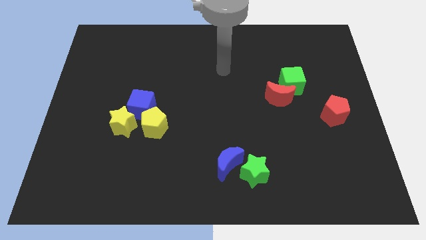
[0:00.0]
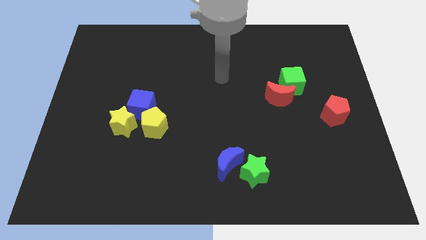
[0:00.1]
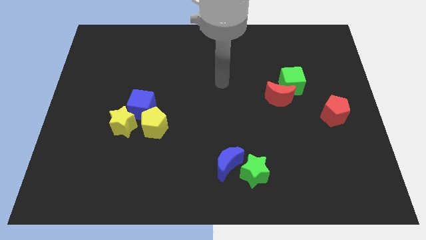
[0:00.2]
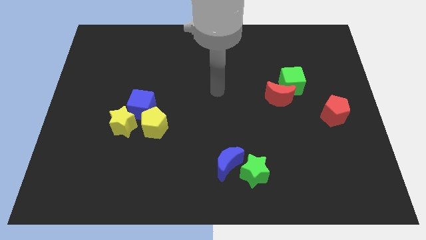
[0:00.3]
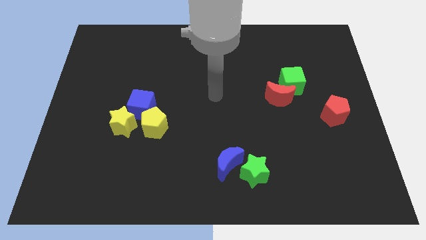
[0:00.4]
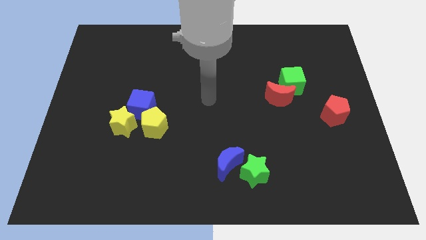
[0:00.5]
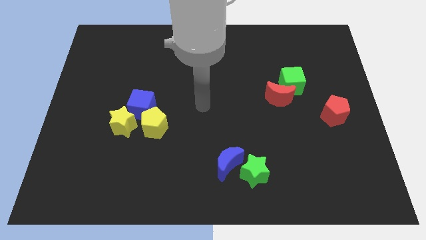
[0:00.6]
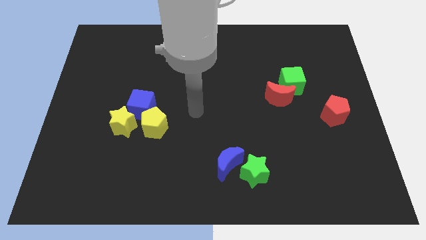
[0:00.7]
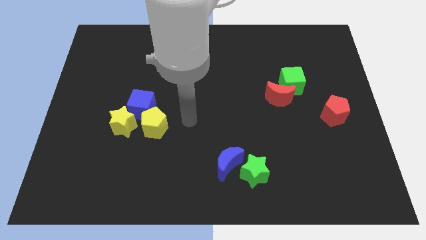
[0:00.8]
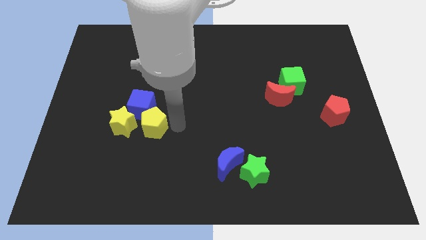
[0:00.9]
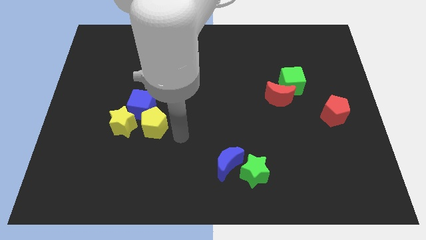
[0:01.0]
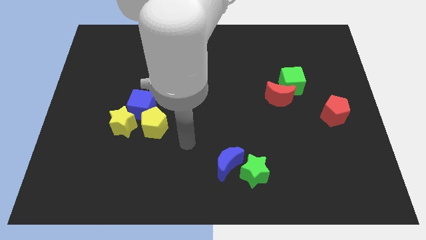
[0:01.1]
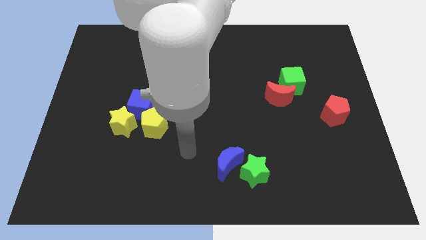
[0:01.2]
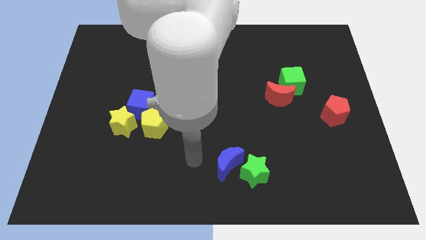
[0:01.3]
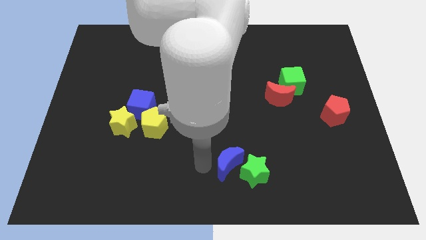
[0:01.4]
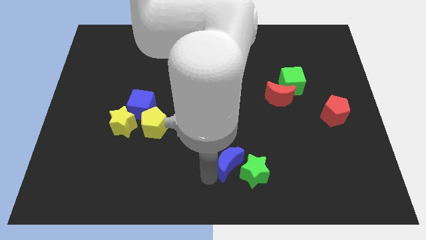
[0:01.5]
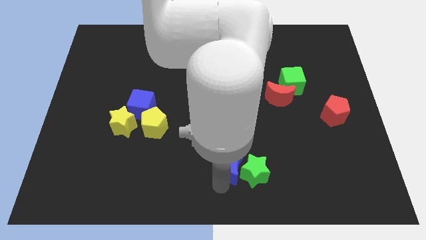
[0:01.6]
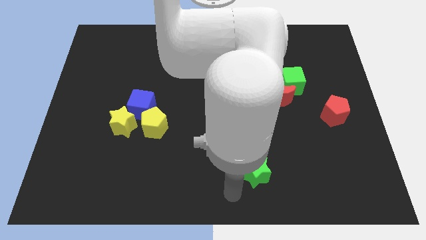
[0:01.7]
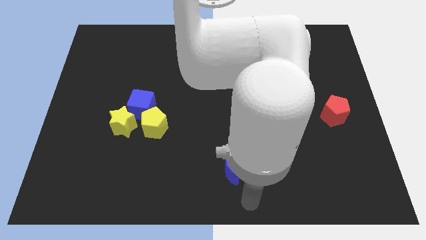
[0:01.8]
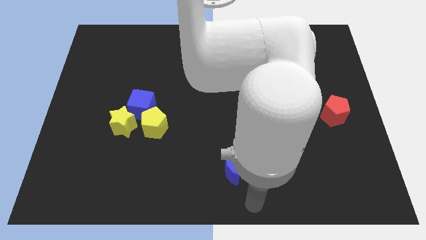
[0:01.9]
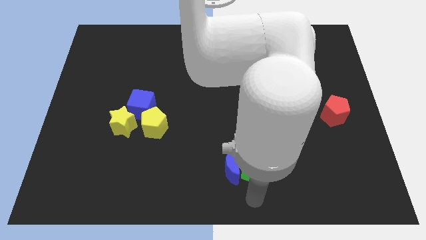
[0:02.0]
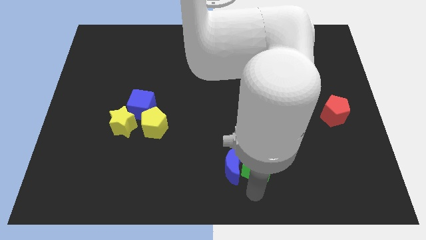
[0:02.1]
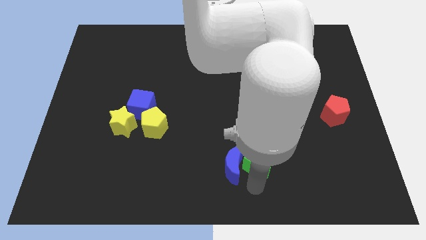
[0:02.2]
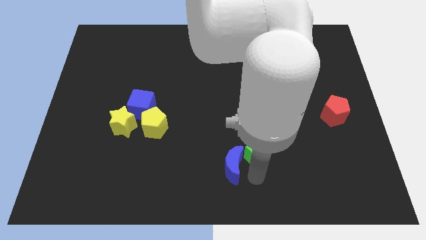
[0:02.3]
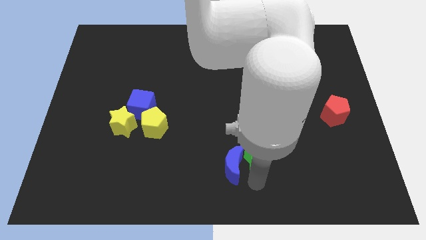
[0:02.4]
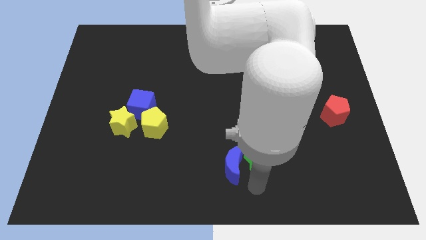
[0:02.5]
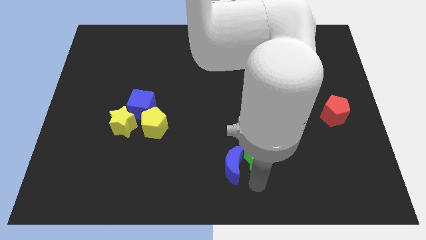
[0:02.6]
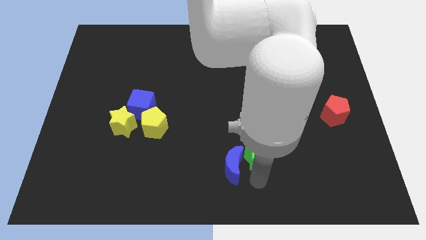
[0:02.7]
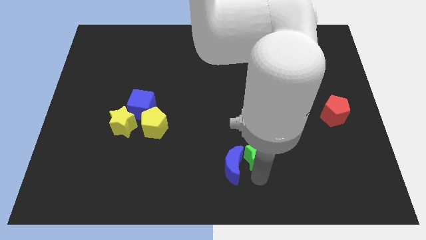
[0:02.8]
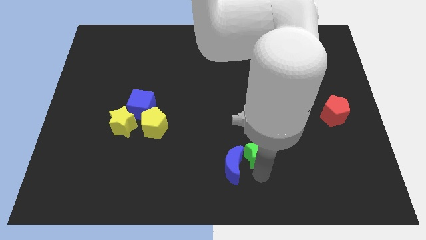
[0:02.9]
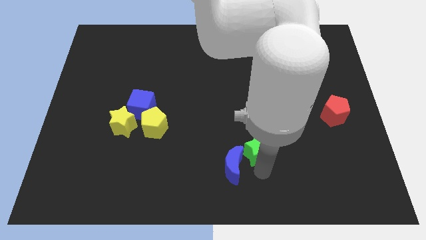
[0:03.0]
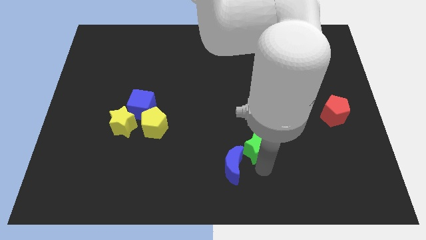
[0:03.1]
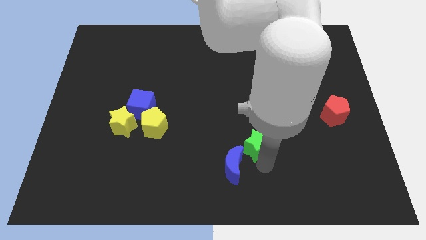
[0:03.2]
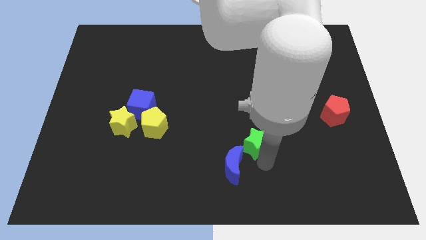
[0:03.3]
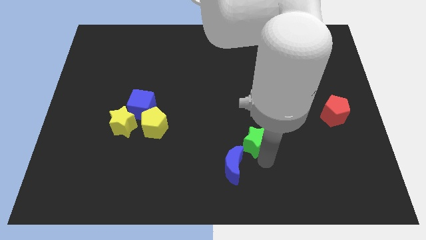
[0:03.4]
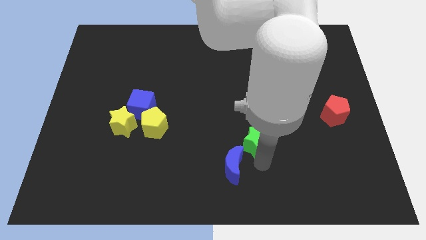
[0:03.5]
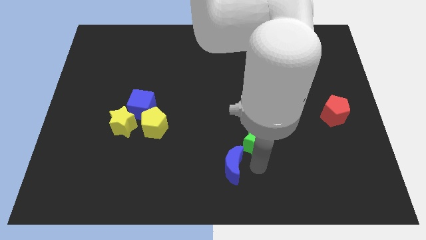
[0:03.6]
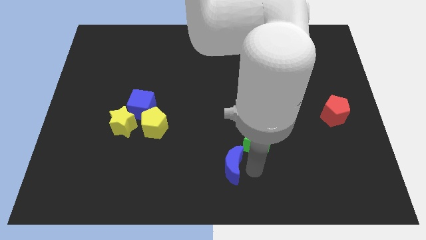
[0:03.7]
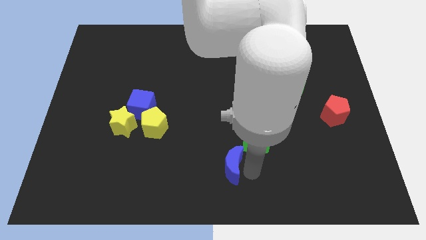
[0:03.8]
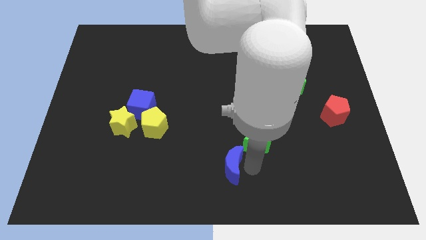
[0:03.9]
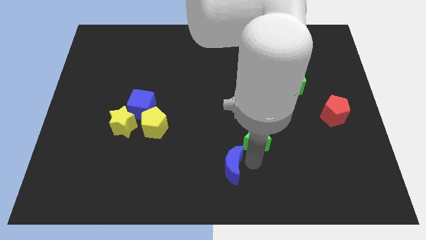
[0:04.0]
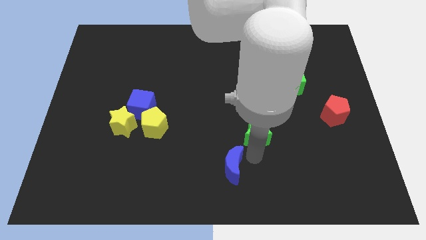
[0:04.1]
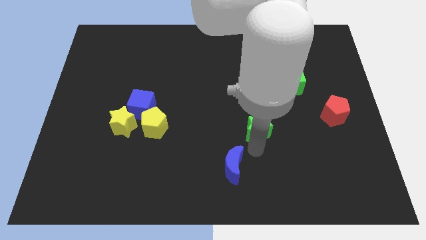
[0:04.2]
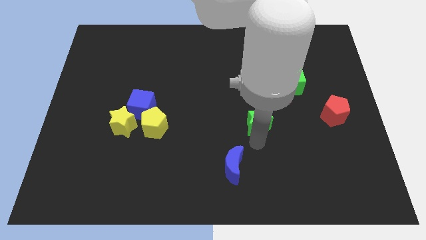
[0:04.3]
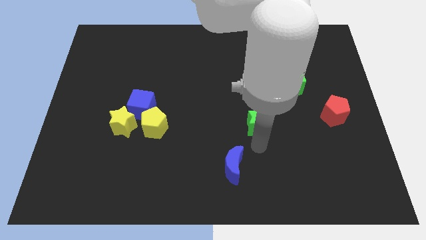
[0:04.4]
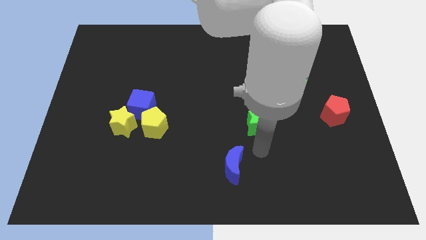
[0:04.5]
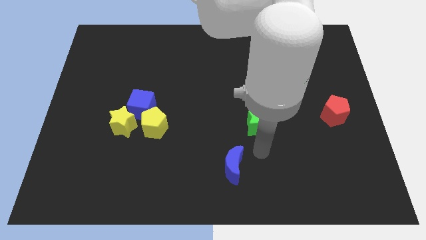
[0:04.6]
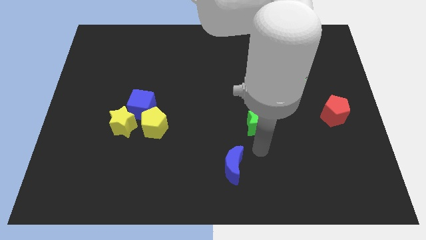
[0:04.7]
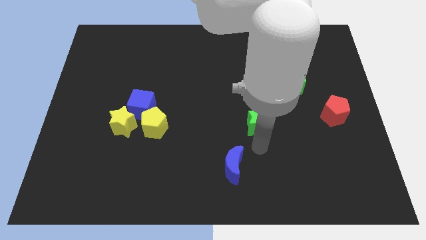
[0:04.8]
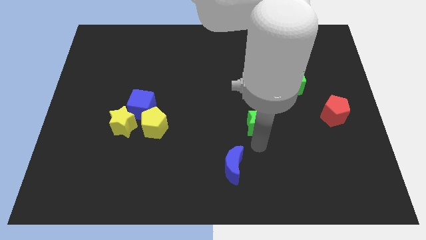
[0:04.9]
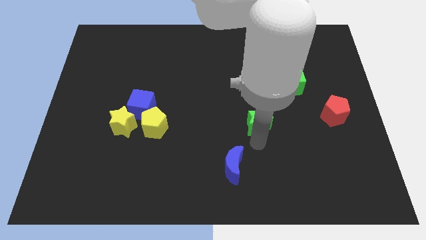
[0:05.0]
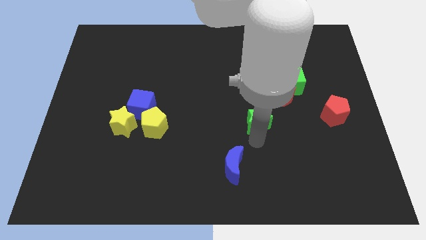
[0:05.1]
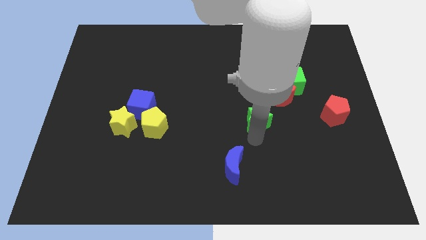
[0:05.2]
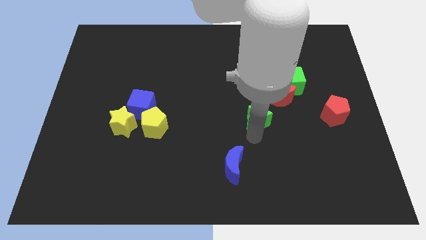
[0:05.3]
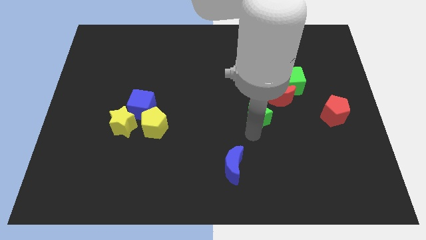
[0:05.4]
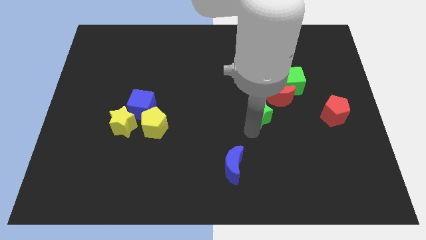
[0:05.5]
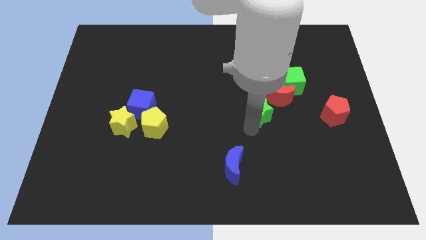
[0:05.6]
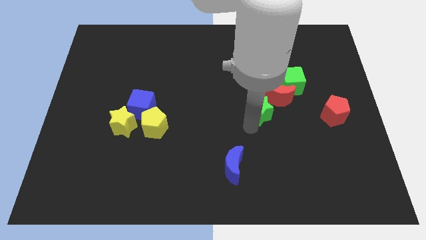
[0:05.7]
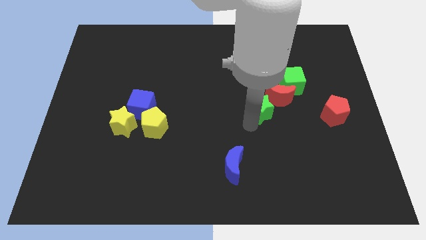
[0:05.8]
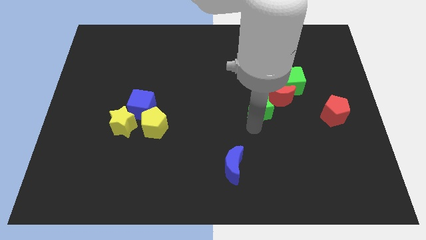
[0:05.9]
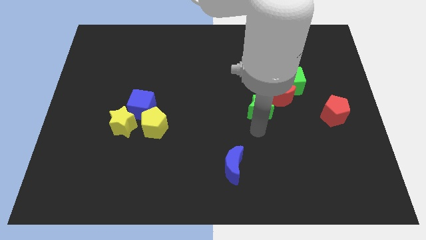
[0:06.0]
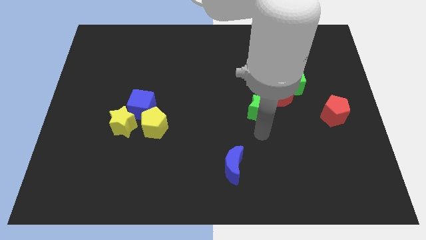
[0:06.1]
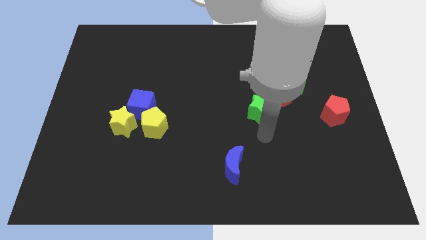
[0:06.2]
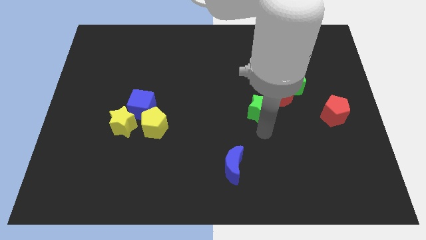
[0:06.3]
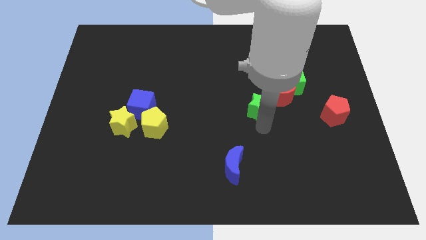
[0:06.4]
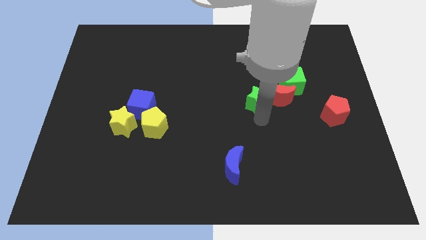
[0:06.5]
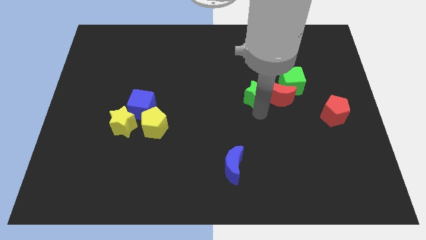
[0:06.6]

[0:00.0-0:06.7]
move the green star up

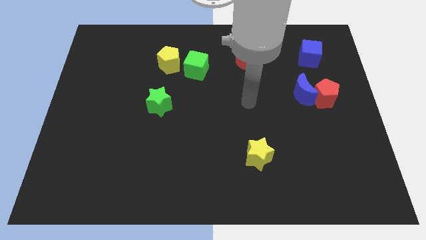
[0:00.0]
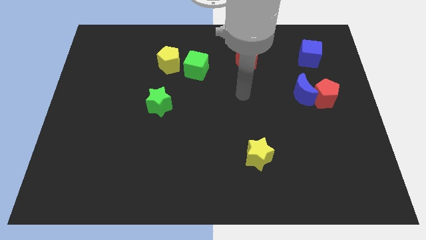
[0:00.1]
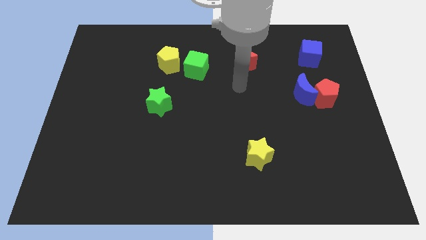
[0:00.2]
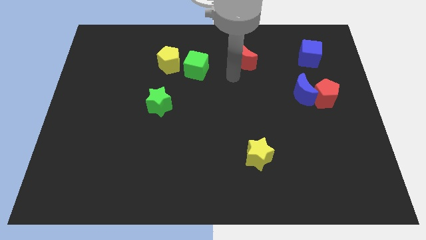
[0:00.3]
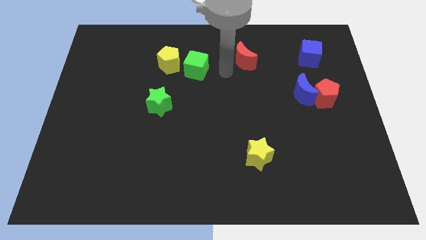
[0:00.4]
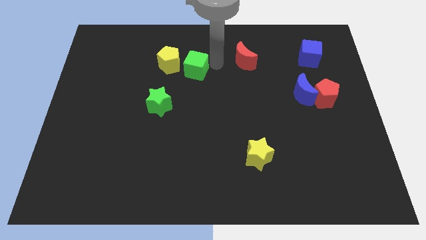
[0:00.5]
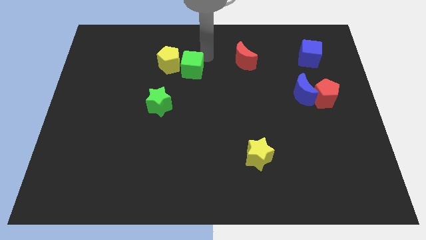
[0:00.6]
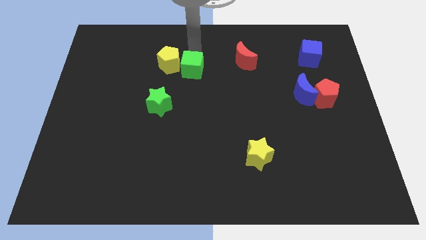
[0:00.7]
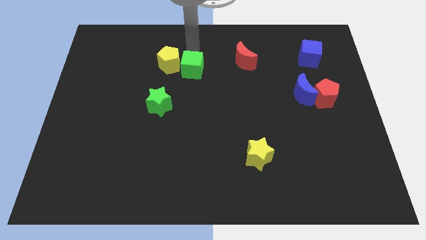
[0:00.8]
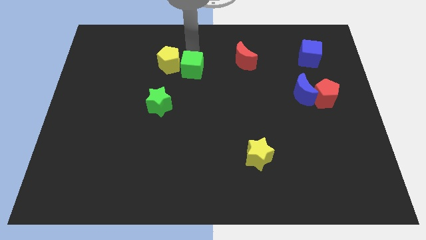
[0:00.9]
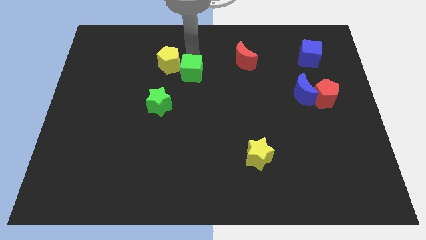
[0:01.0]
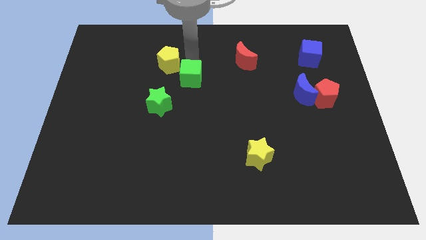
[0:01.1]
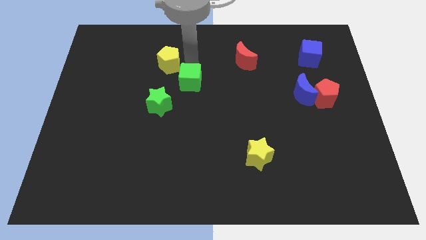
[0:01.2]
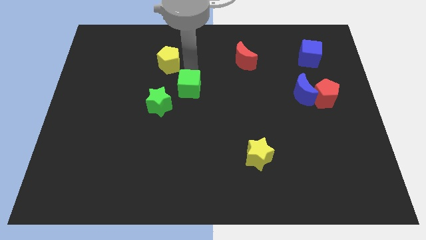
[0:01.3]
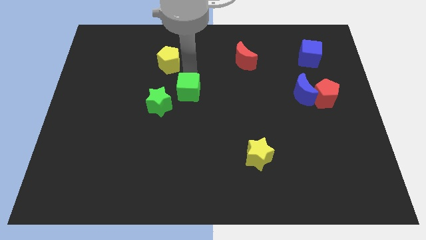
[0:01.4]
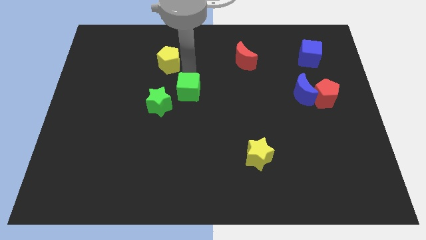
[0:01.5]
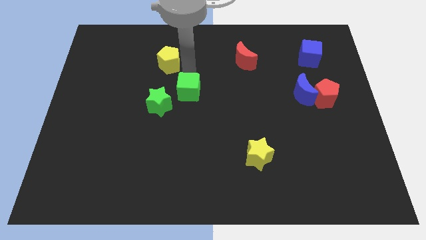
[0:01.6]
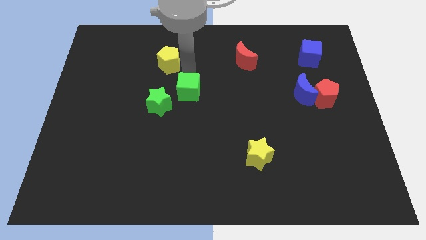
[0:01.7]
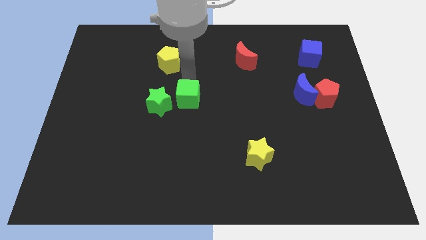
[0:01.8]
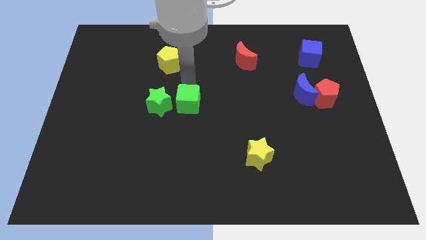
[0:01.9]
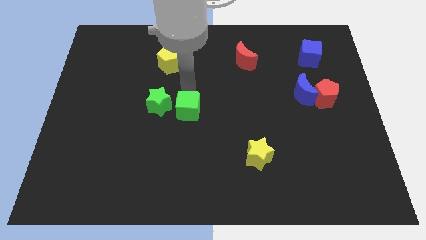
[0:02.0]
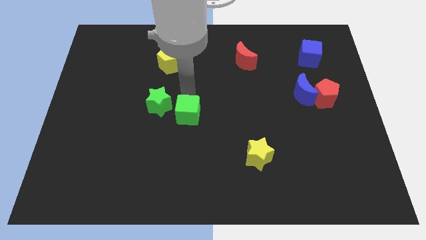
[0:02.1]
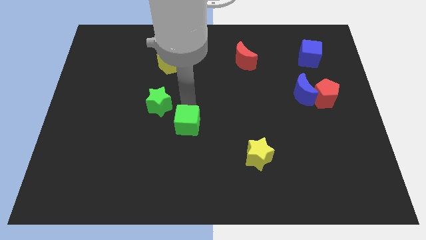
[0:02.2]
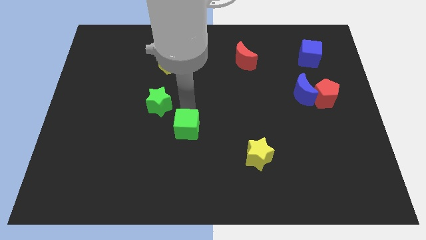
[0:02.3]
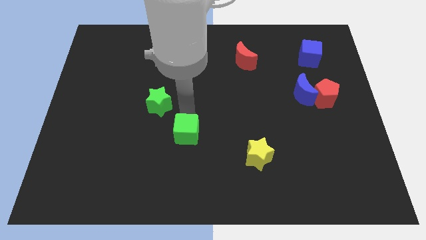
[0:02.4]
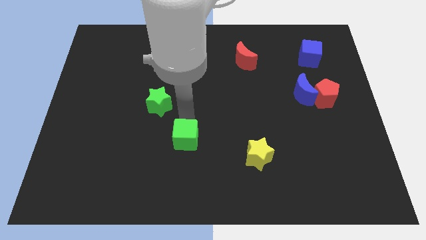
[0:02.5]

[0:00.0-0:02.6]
push the green cube downwards
